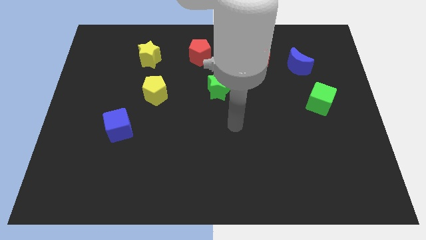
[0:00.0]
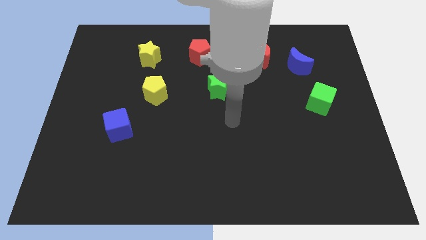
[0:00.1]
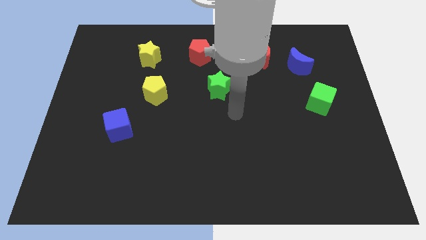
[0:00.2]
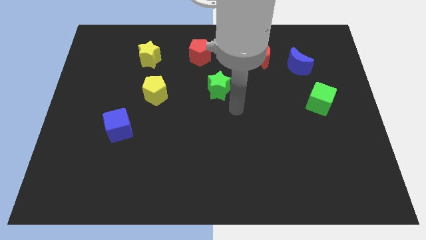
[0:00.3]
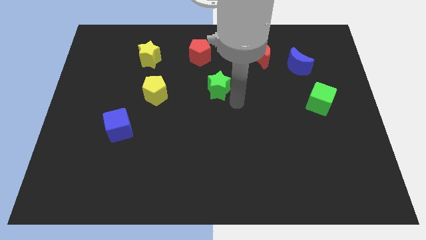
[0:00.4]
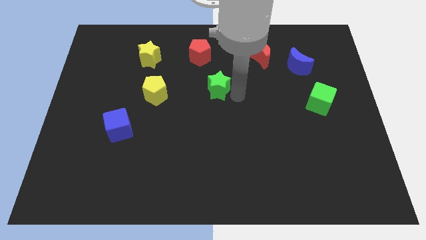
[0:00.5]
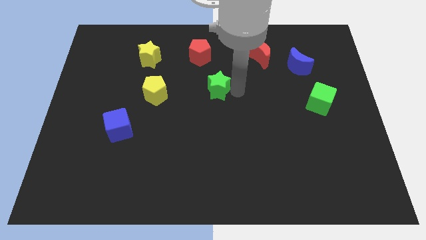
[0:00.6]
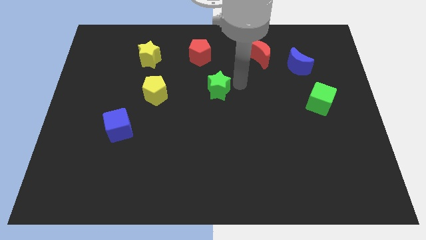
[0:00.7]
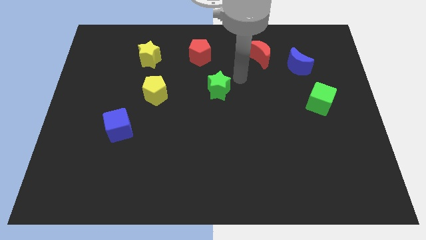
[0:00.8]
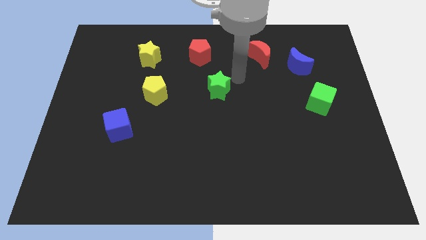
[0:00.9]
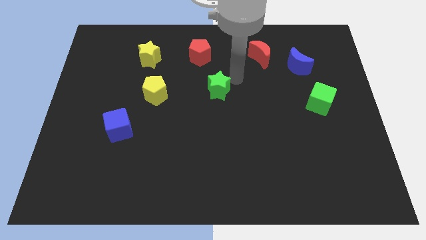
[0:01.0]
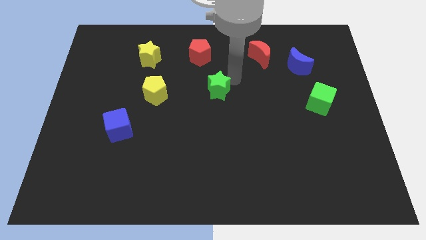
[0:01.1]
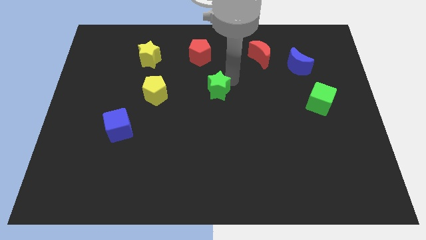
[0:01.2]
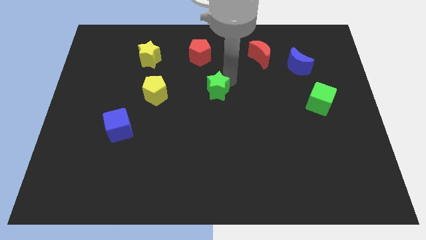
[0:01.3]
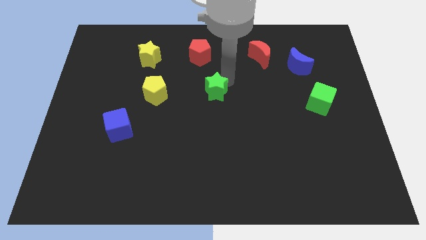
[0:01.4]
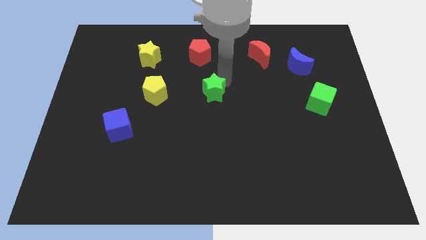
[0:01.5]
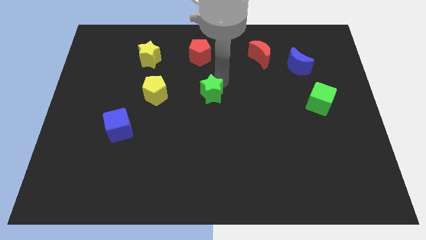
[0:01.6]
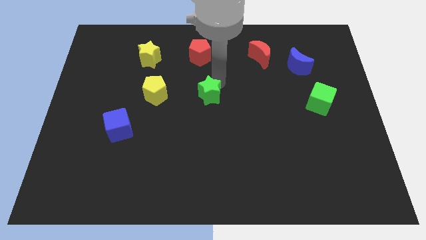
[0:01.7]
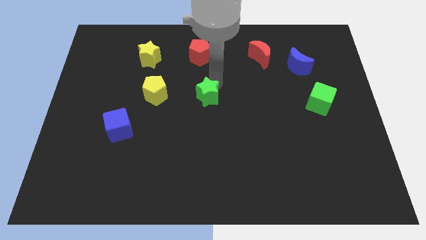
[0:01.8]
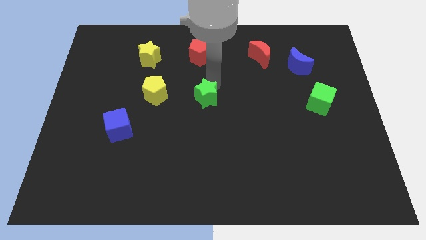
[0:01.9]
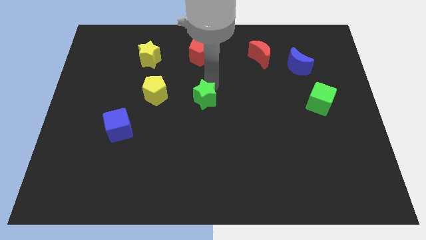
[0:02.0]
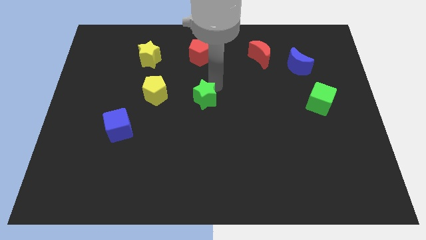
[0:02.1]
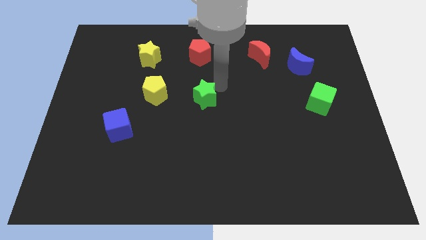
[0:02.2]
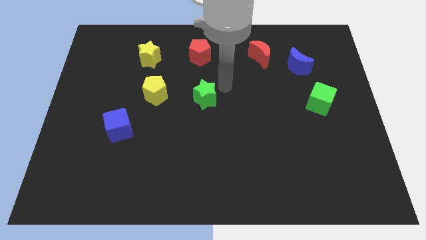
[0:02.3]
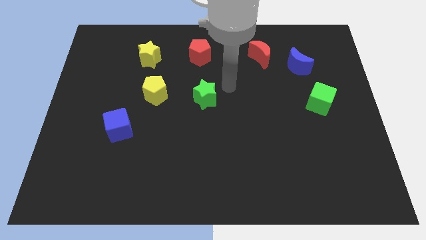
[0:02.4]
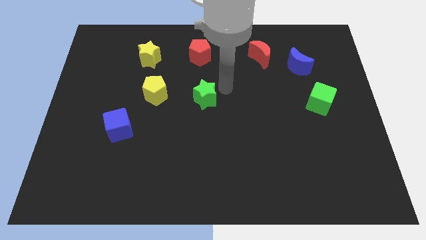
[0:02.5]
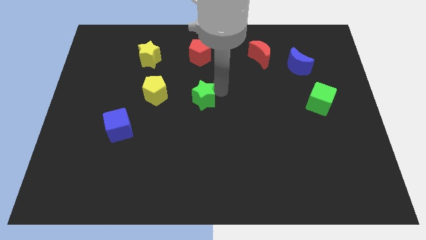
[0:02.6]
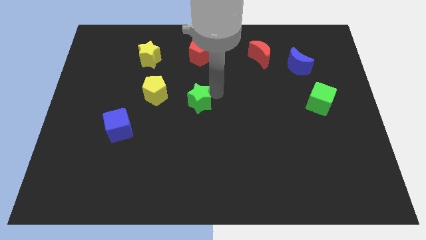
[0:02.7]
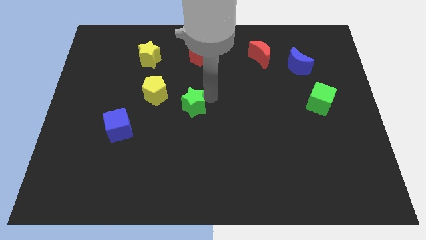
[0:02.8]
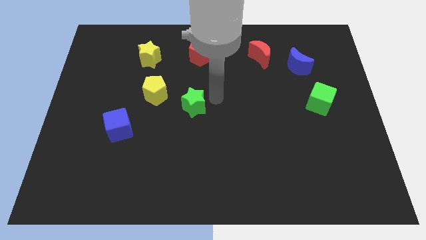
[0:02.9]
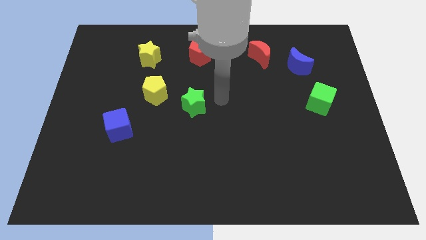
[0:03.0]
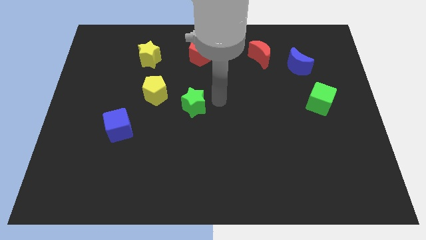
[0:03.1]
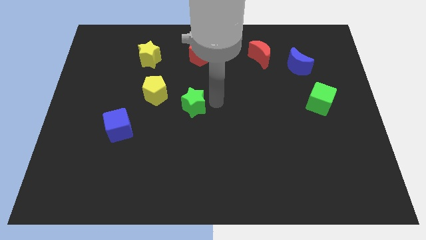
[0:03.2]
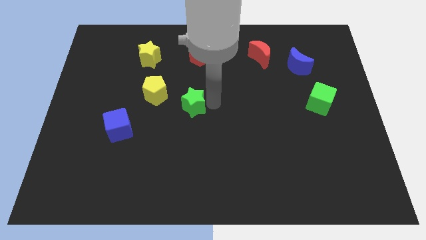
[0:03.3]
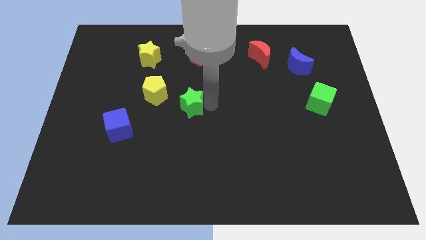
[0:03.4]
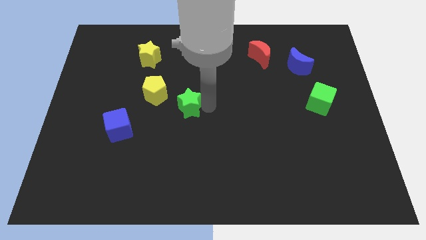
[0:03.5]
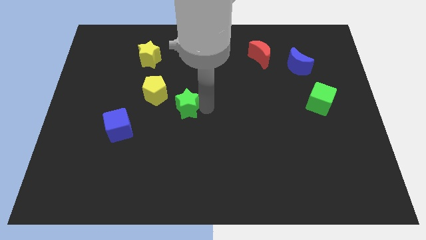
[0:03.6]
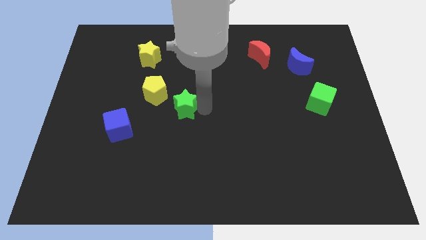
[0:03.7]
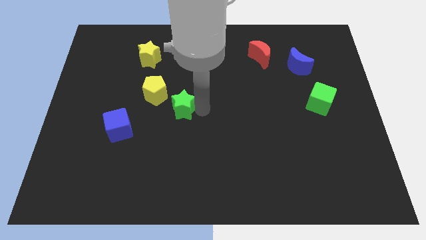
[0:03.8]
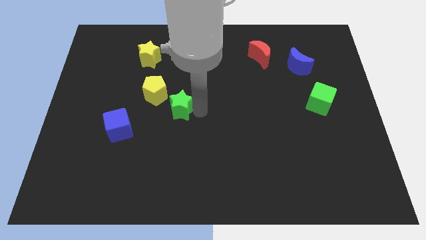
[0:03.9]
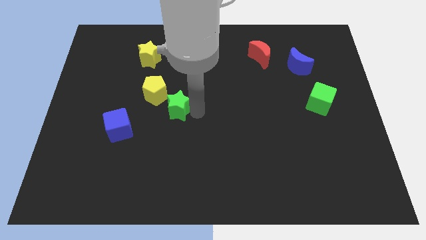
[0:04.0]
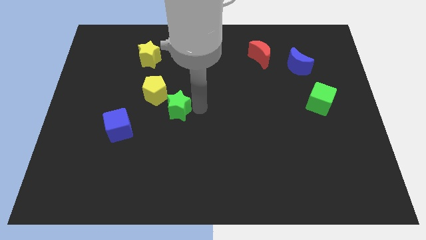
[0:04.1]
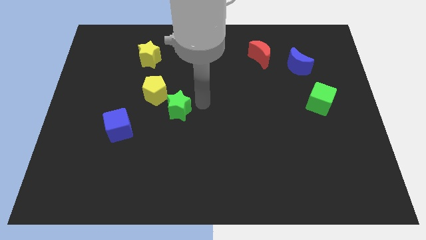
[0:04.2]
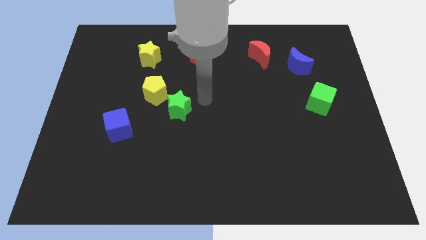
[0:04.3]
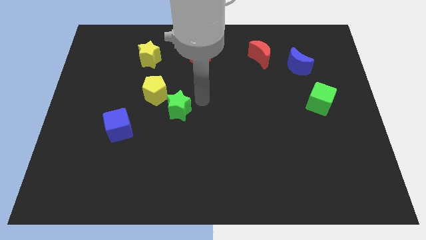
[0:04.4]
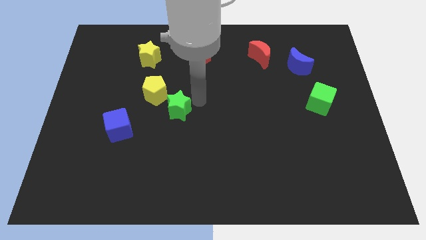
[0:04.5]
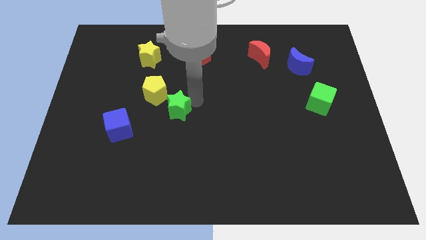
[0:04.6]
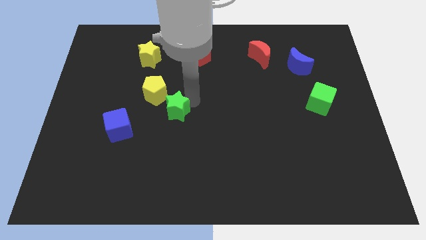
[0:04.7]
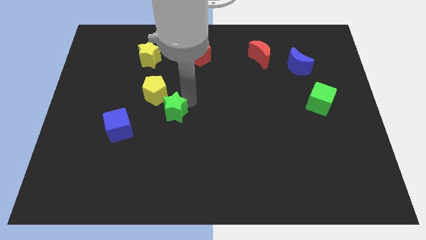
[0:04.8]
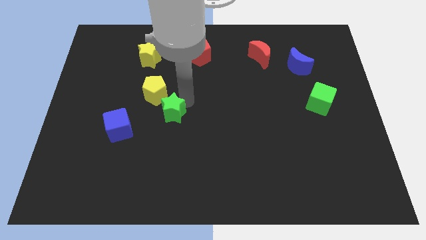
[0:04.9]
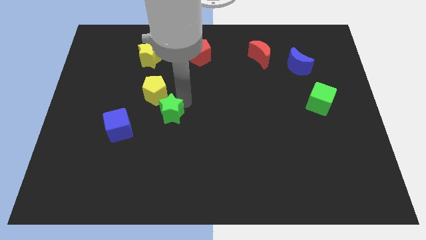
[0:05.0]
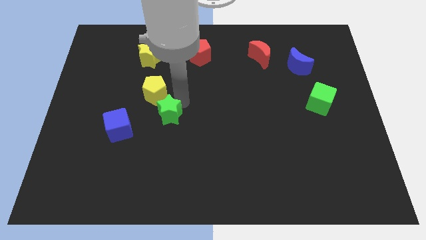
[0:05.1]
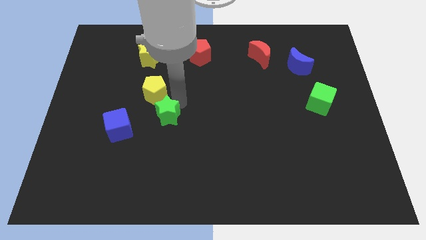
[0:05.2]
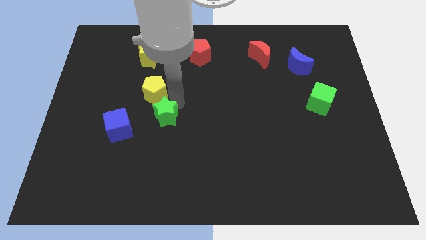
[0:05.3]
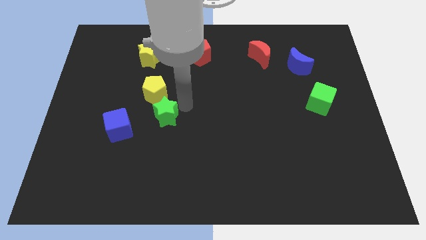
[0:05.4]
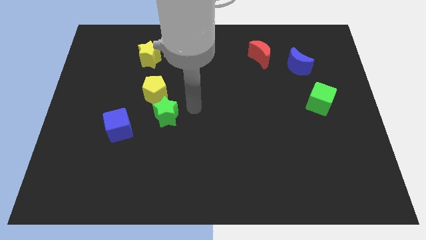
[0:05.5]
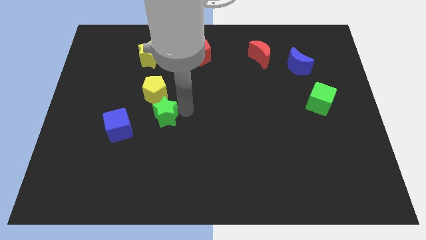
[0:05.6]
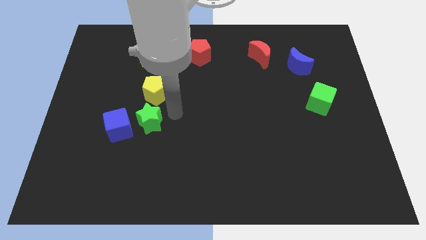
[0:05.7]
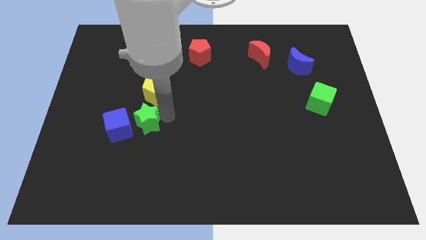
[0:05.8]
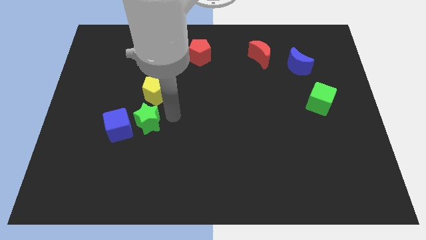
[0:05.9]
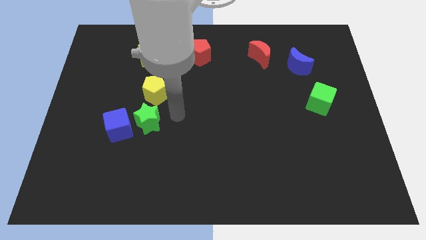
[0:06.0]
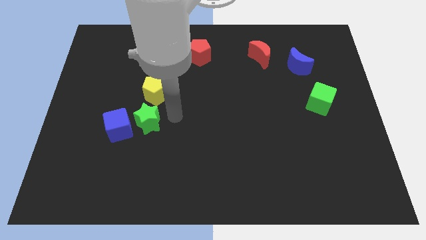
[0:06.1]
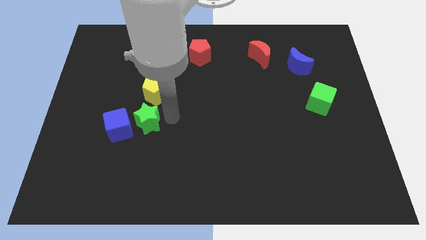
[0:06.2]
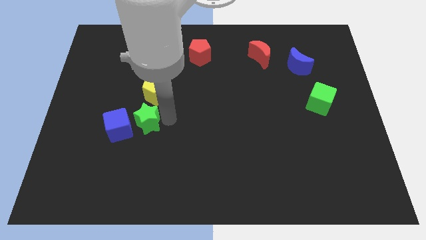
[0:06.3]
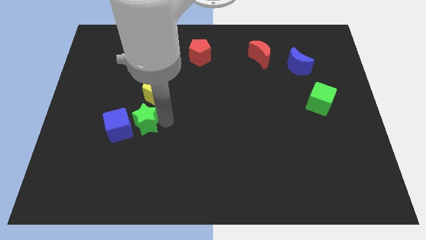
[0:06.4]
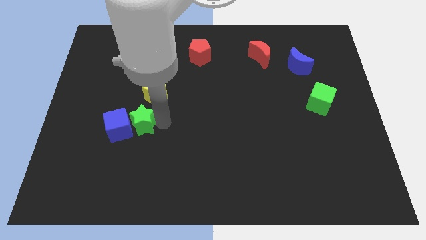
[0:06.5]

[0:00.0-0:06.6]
put the green star close to the blue cube

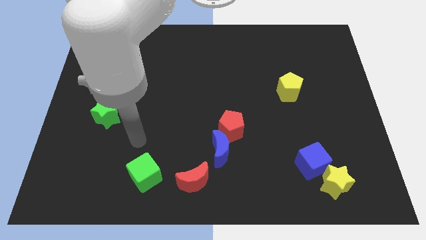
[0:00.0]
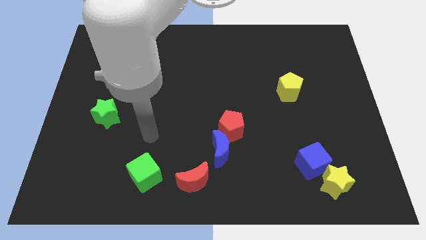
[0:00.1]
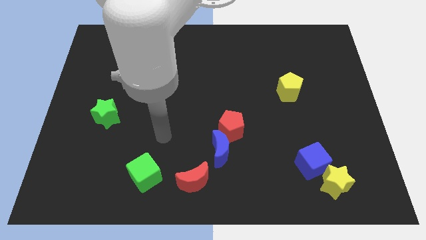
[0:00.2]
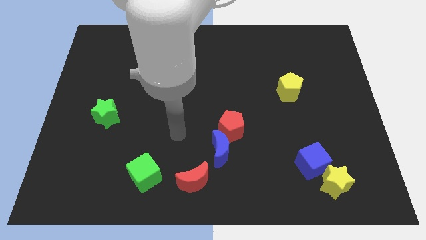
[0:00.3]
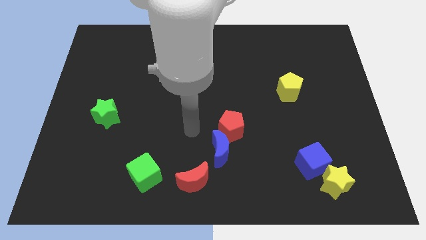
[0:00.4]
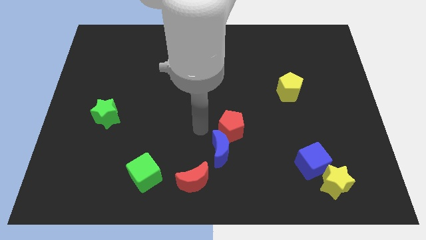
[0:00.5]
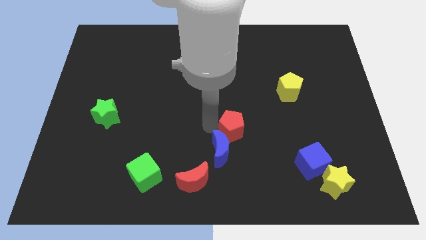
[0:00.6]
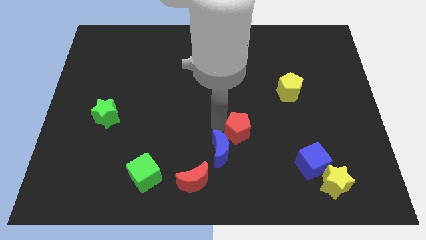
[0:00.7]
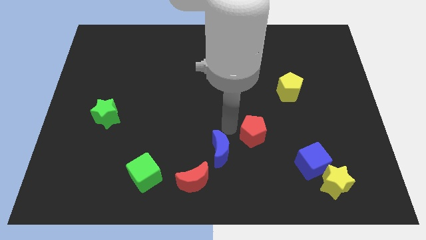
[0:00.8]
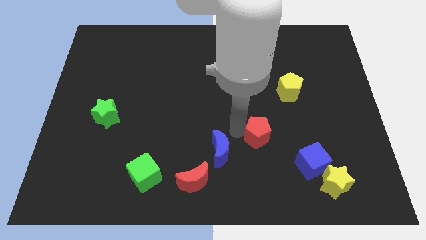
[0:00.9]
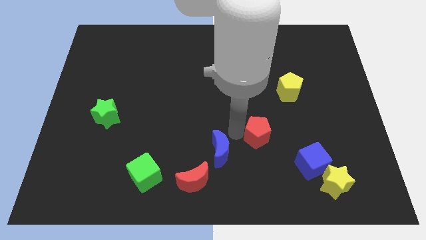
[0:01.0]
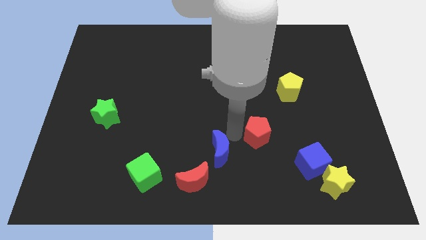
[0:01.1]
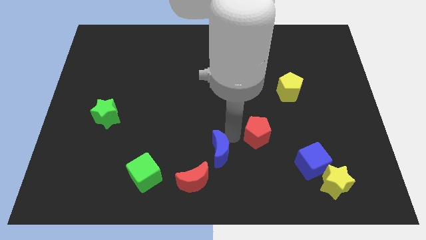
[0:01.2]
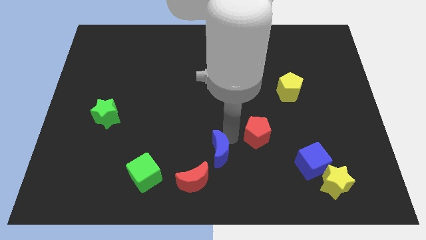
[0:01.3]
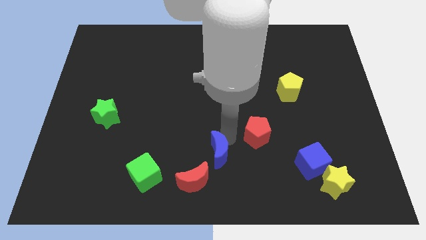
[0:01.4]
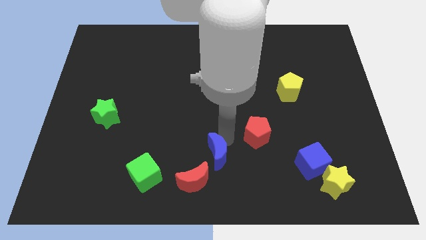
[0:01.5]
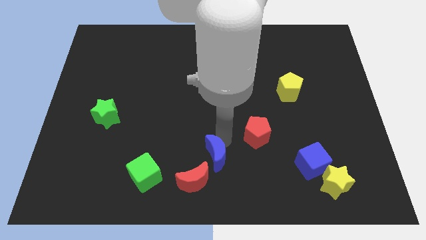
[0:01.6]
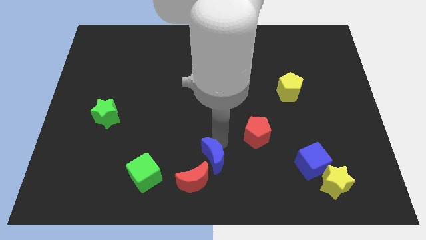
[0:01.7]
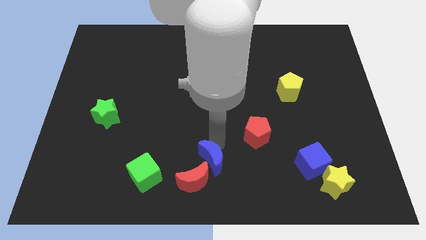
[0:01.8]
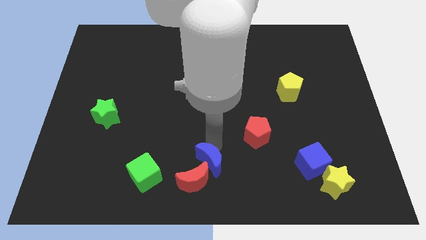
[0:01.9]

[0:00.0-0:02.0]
move the blue moon close to the red moon
